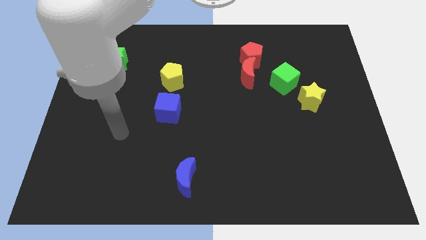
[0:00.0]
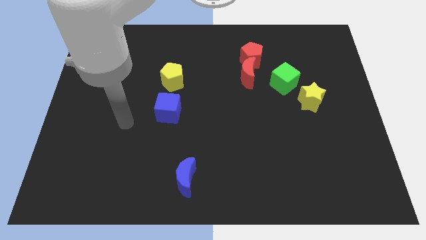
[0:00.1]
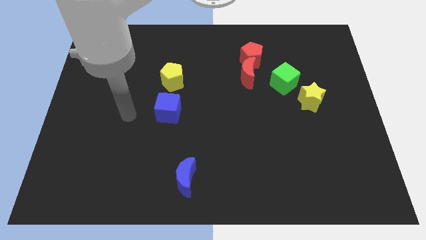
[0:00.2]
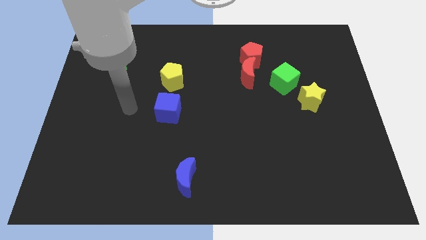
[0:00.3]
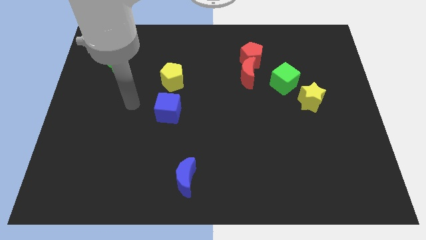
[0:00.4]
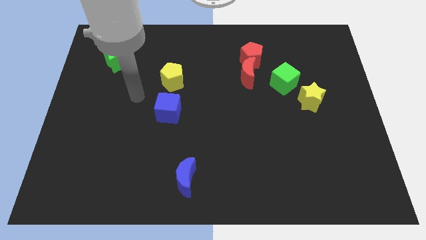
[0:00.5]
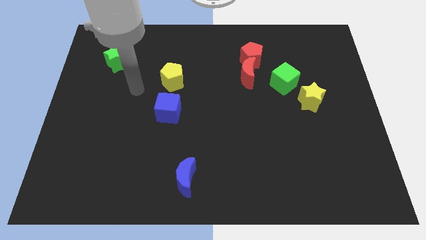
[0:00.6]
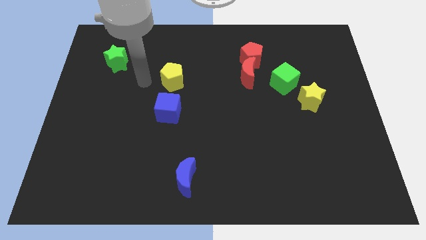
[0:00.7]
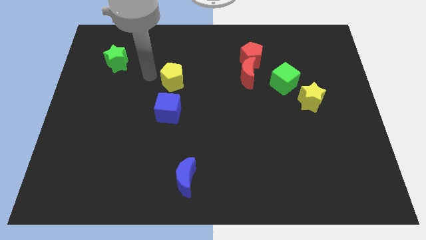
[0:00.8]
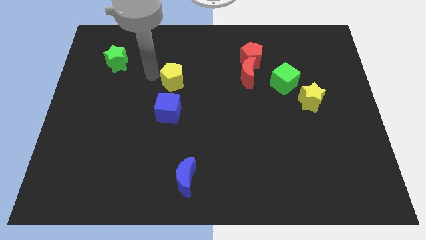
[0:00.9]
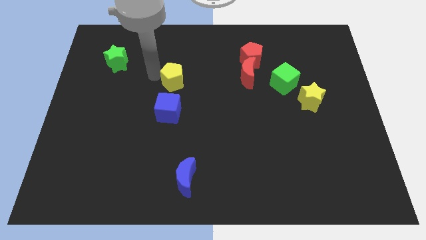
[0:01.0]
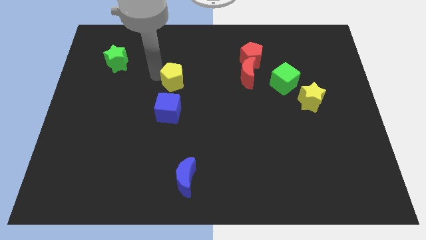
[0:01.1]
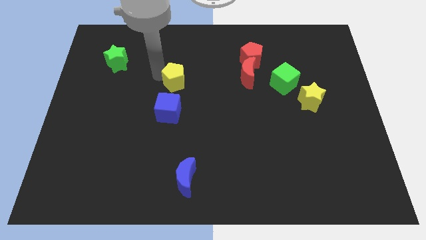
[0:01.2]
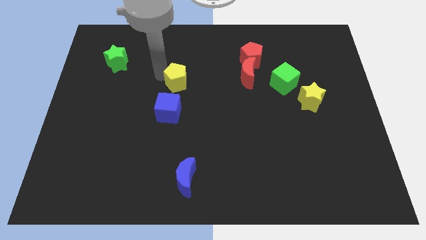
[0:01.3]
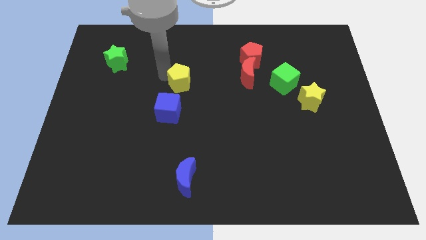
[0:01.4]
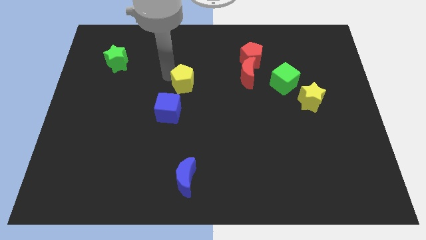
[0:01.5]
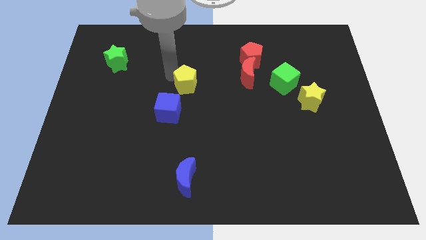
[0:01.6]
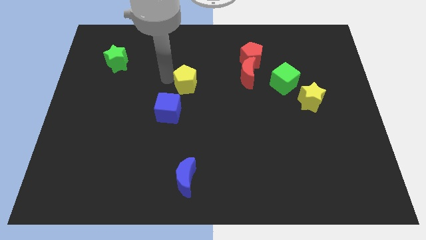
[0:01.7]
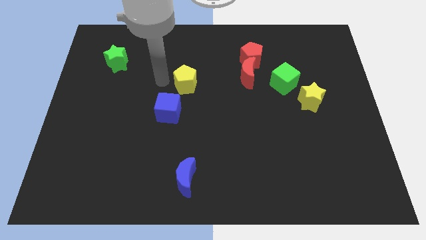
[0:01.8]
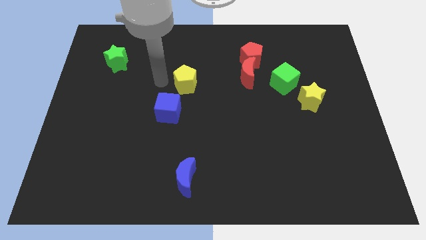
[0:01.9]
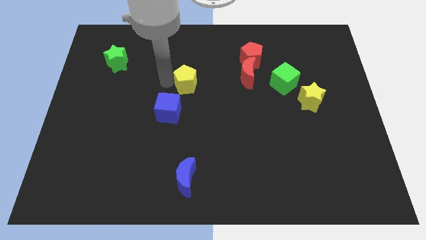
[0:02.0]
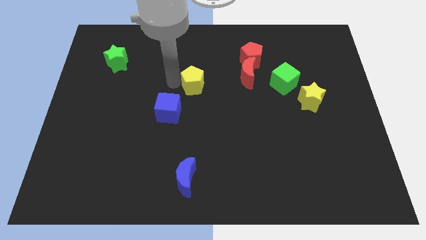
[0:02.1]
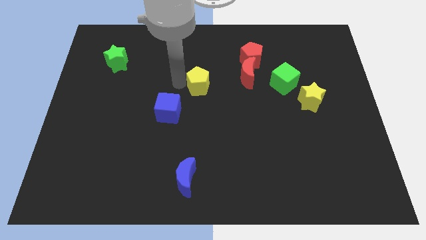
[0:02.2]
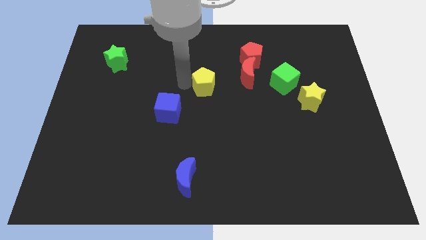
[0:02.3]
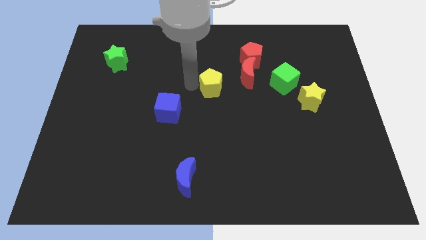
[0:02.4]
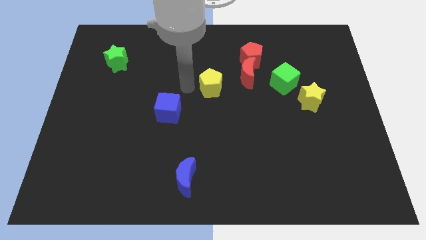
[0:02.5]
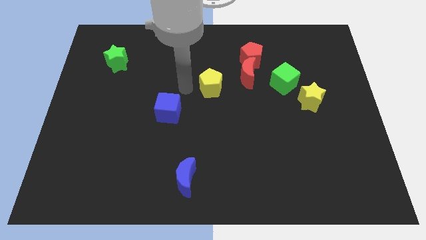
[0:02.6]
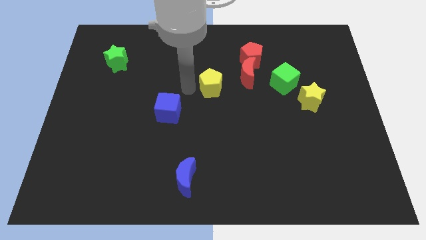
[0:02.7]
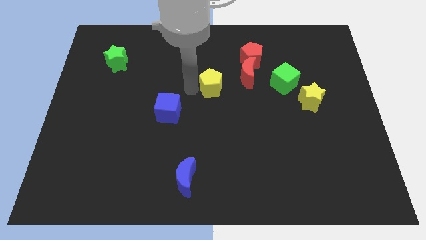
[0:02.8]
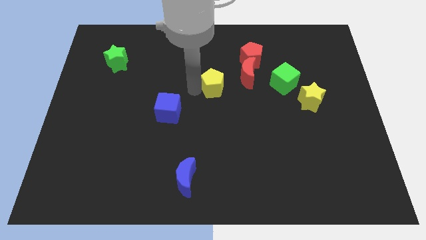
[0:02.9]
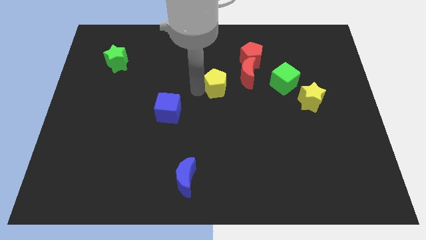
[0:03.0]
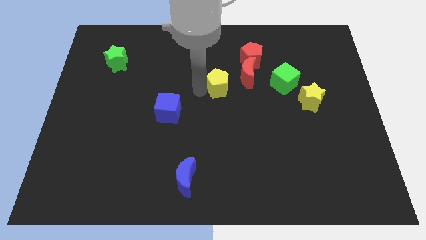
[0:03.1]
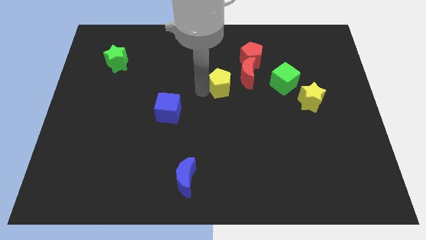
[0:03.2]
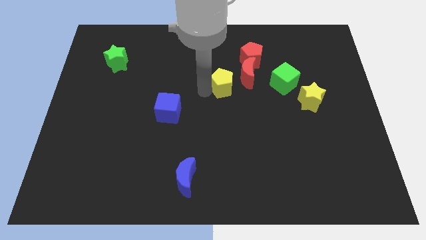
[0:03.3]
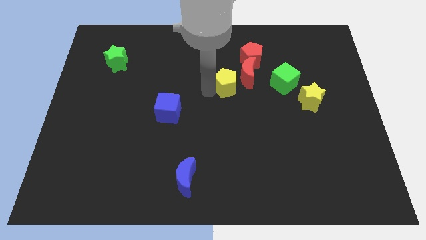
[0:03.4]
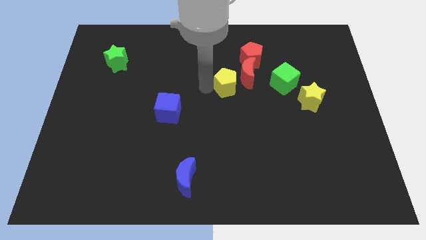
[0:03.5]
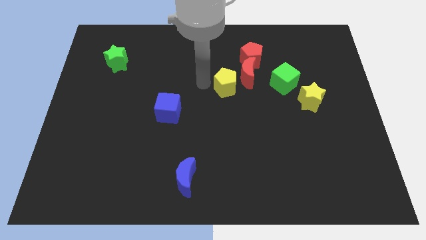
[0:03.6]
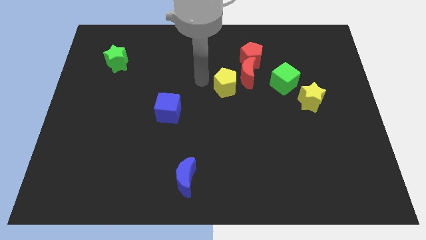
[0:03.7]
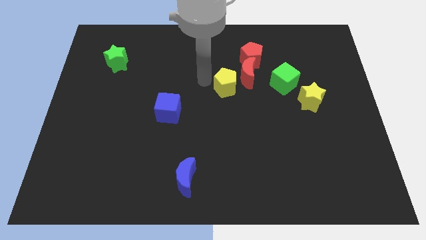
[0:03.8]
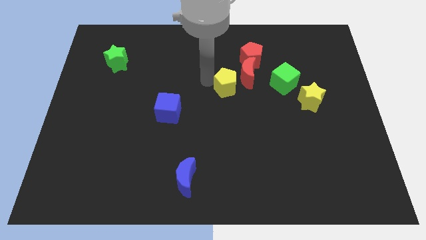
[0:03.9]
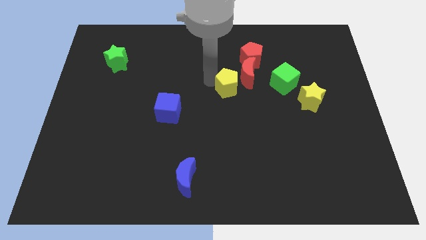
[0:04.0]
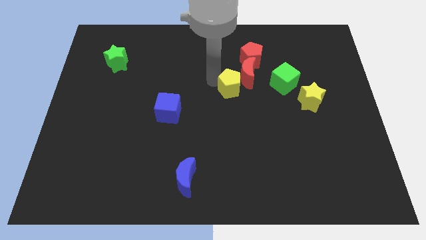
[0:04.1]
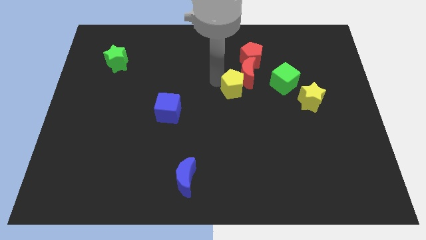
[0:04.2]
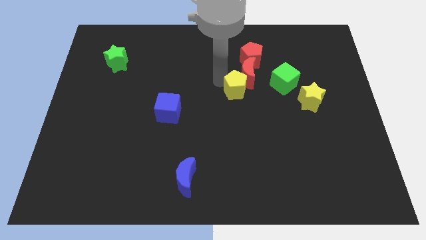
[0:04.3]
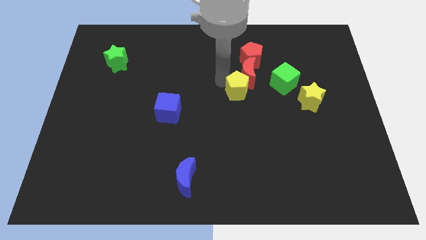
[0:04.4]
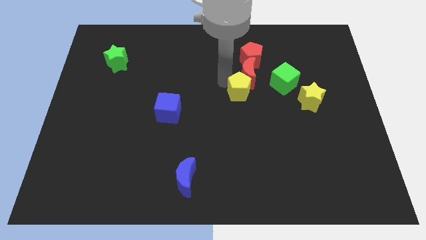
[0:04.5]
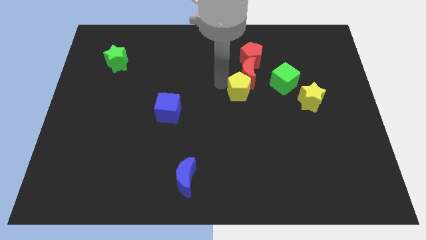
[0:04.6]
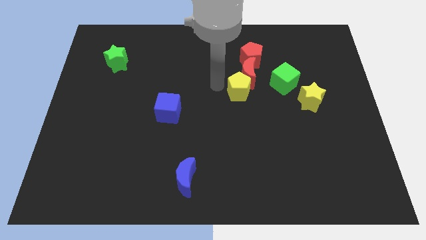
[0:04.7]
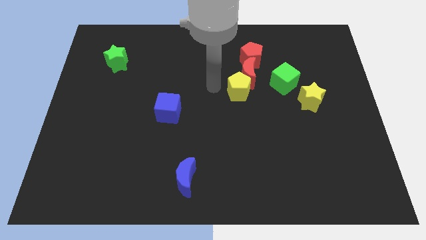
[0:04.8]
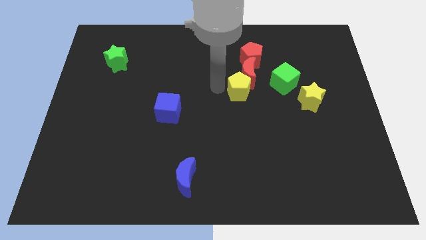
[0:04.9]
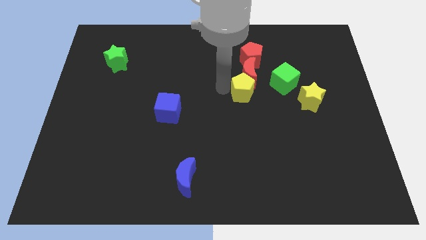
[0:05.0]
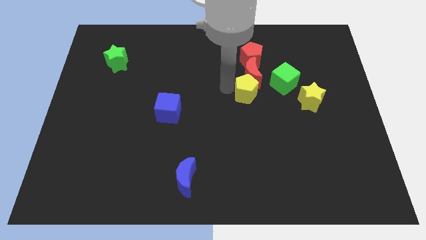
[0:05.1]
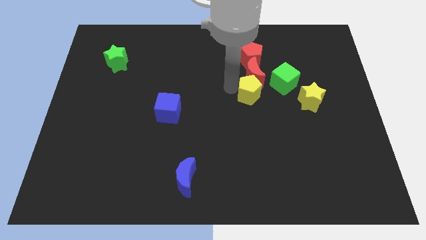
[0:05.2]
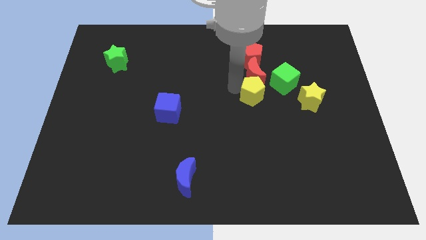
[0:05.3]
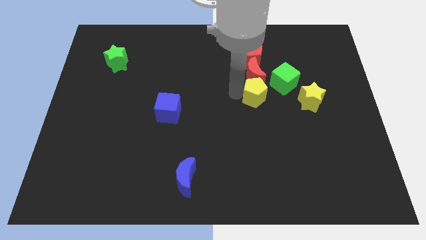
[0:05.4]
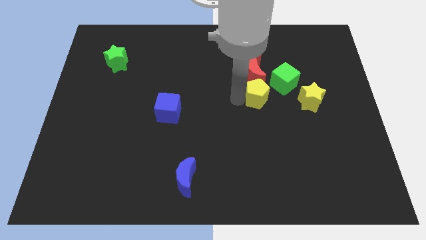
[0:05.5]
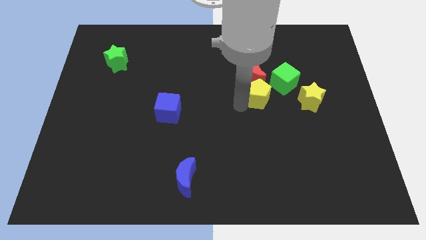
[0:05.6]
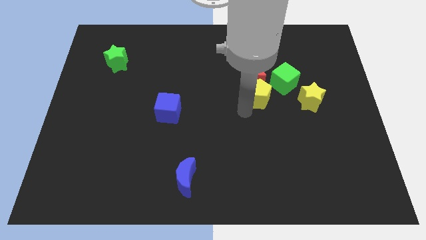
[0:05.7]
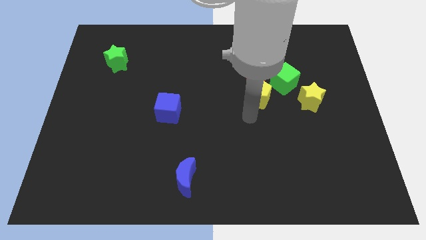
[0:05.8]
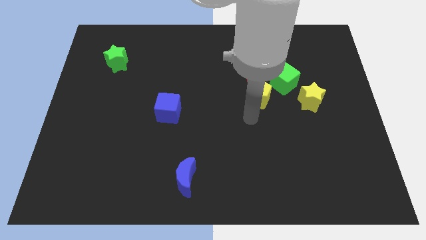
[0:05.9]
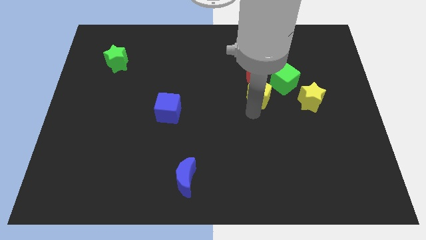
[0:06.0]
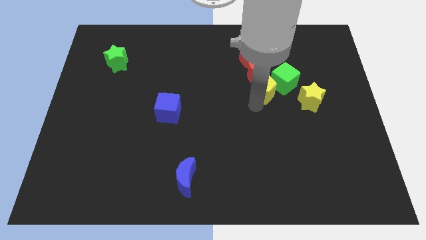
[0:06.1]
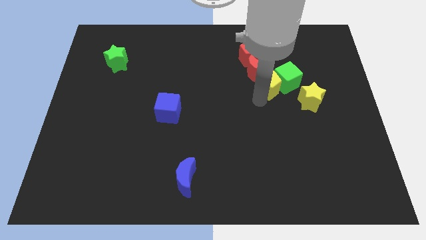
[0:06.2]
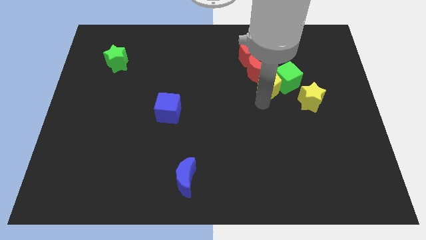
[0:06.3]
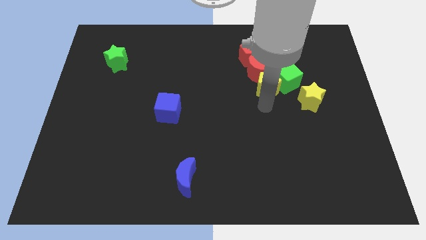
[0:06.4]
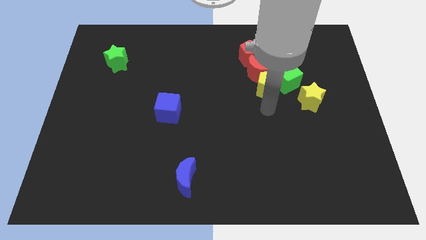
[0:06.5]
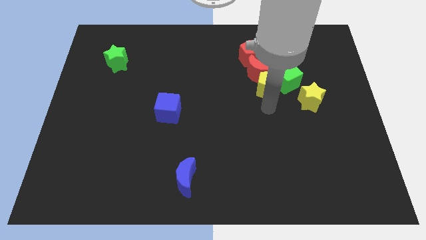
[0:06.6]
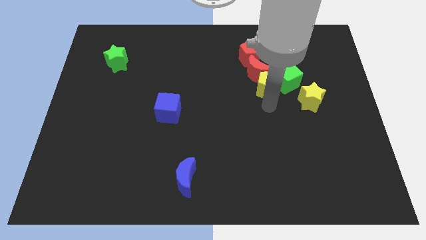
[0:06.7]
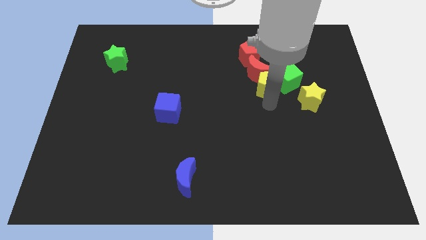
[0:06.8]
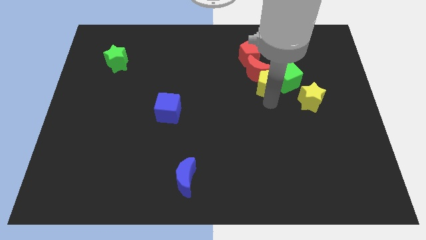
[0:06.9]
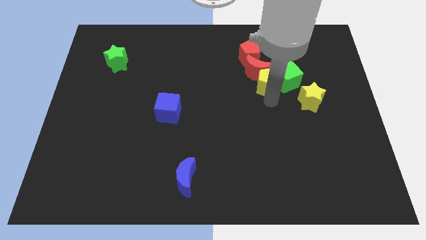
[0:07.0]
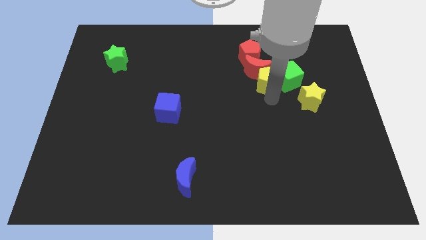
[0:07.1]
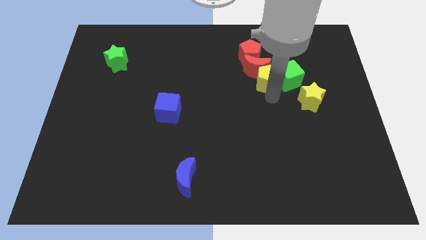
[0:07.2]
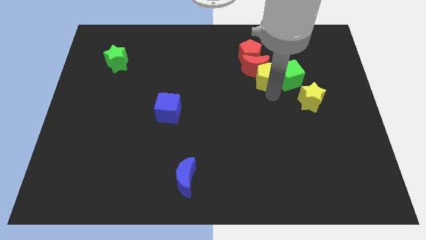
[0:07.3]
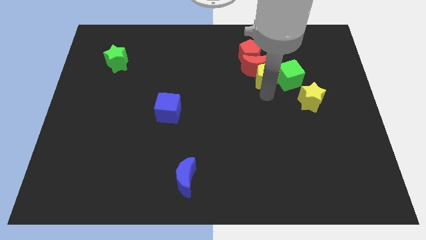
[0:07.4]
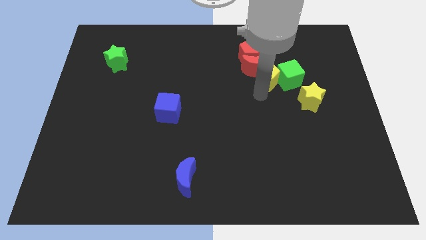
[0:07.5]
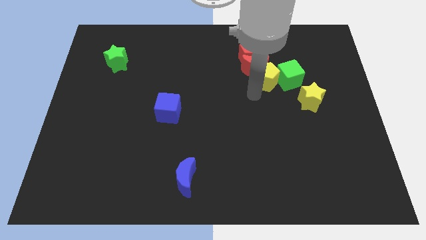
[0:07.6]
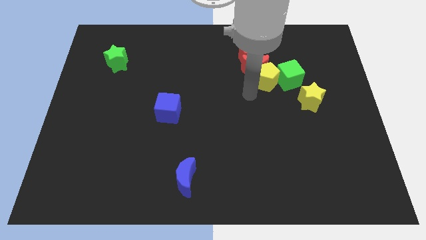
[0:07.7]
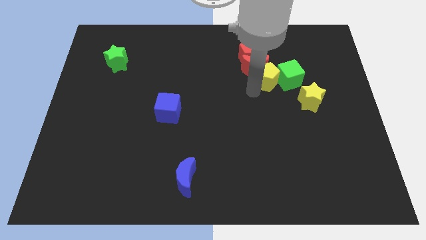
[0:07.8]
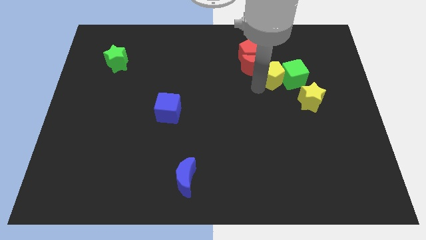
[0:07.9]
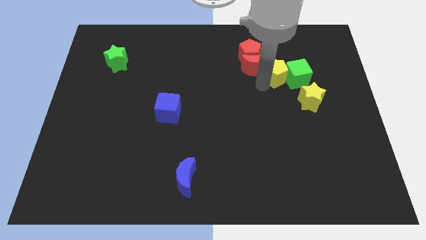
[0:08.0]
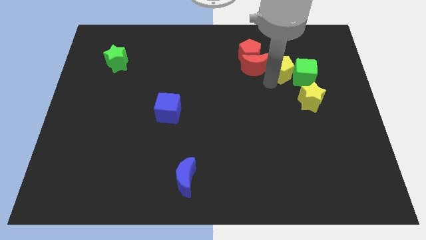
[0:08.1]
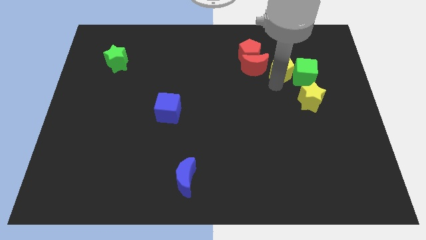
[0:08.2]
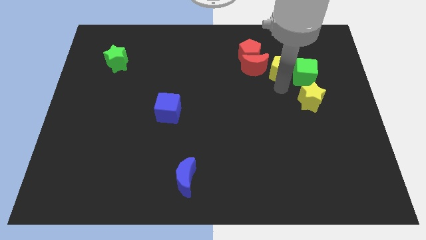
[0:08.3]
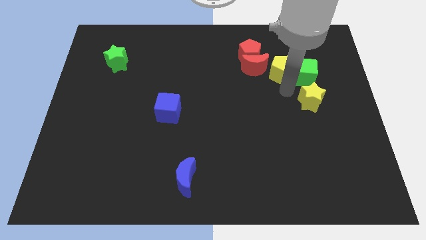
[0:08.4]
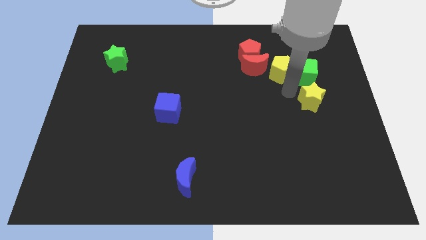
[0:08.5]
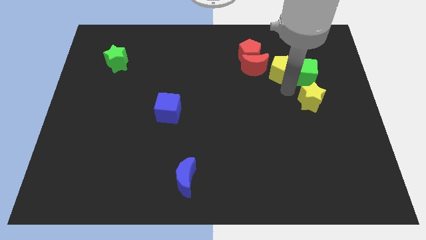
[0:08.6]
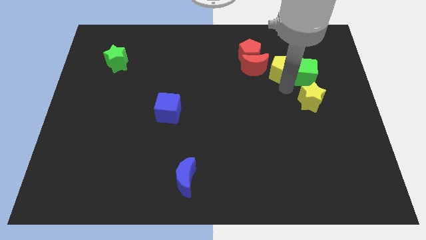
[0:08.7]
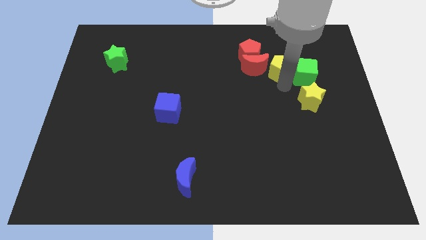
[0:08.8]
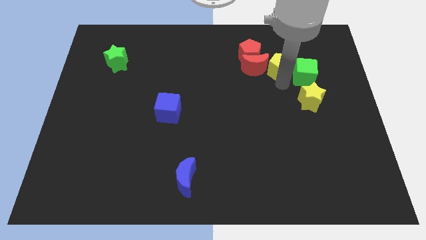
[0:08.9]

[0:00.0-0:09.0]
put the yellow pentagon to the top right side of the red moon
